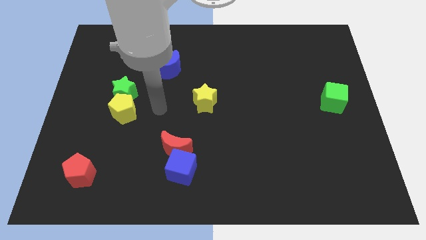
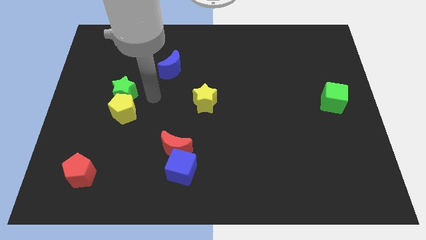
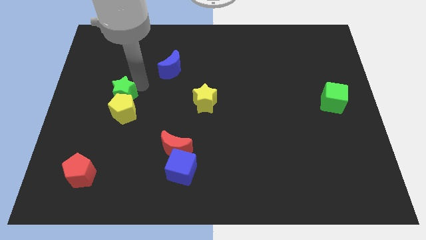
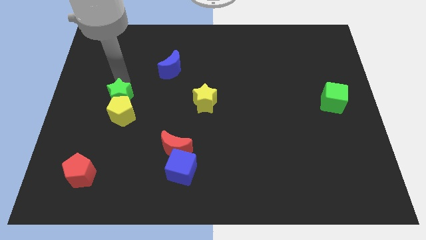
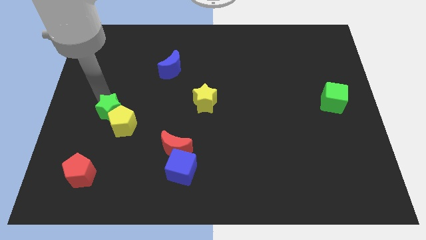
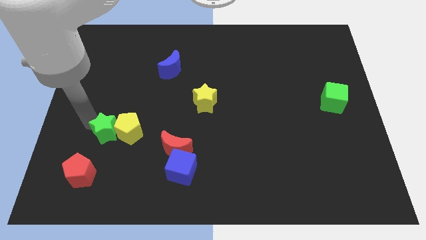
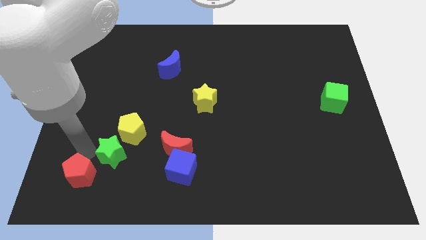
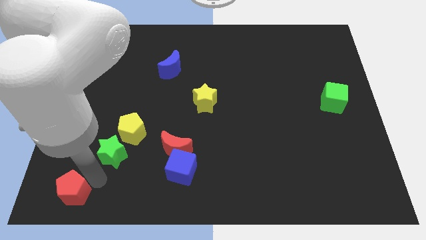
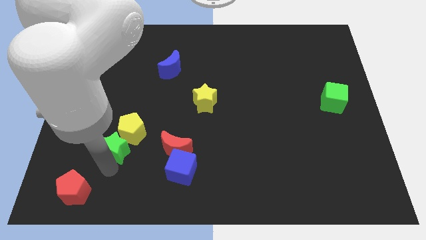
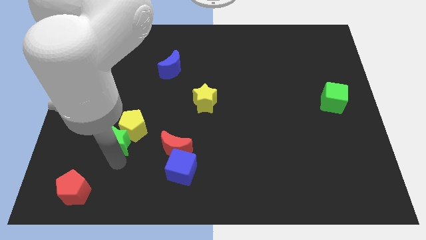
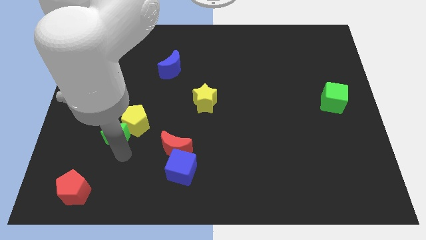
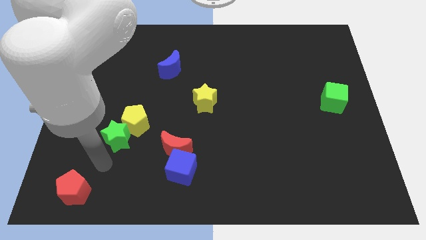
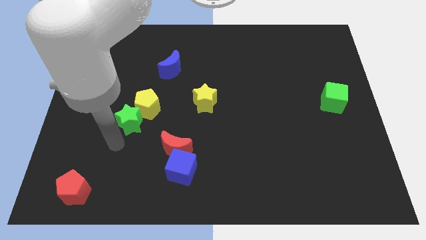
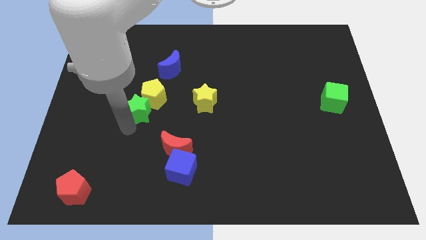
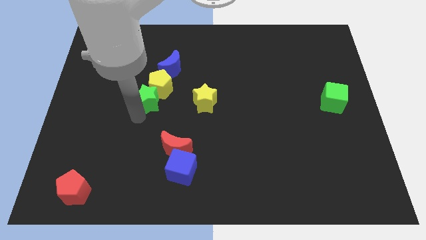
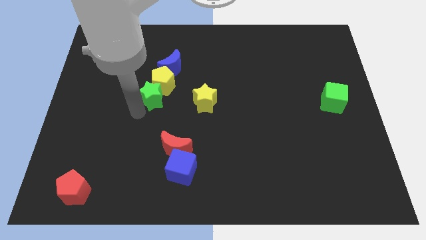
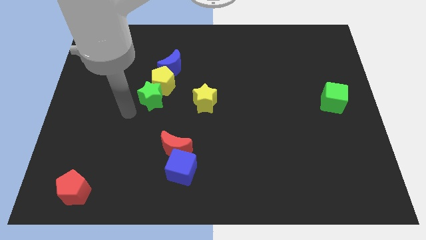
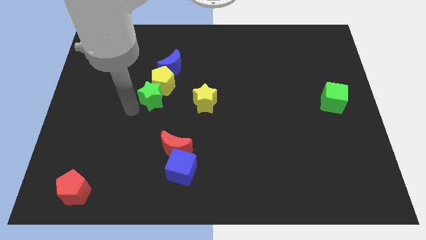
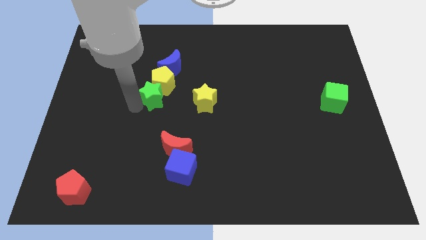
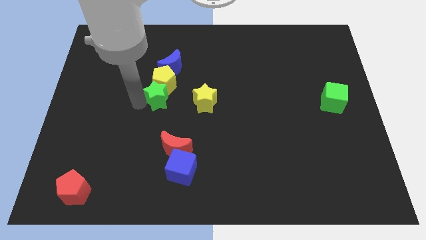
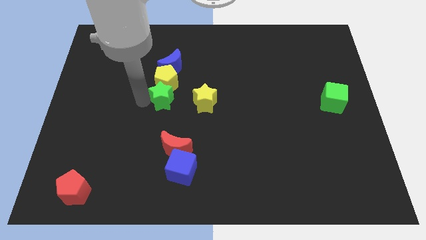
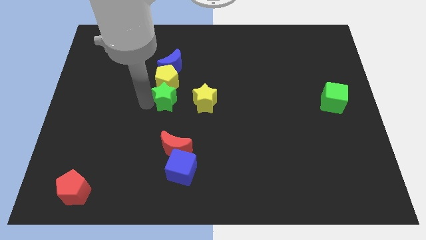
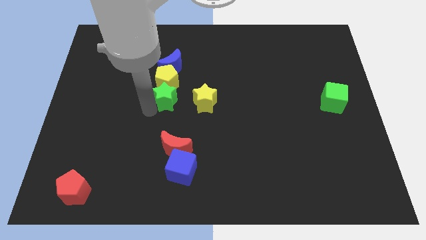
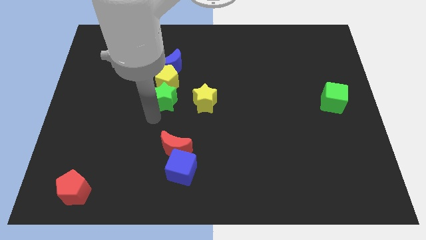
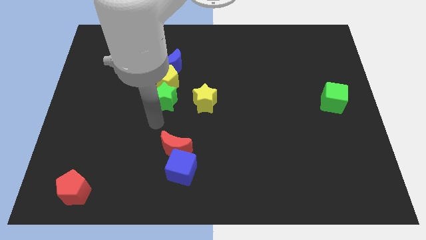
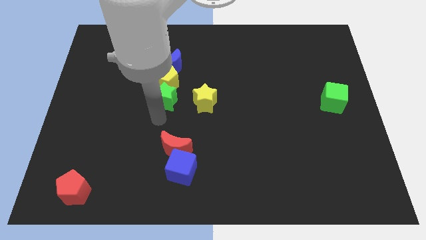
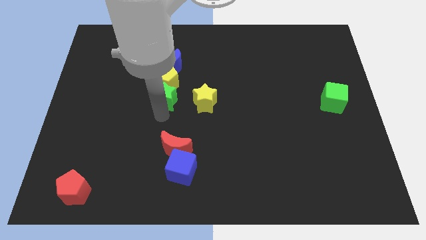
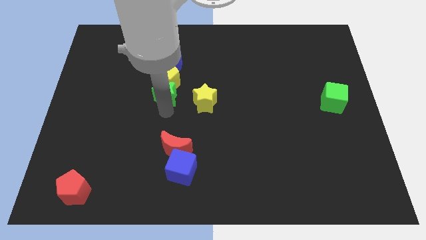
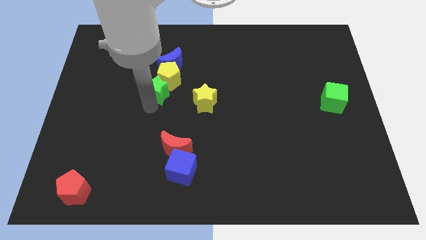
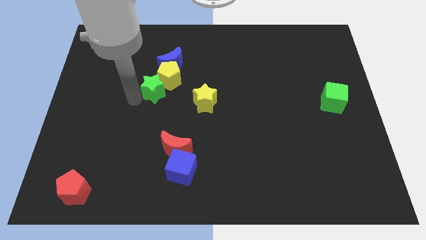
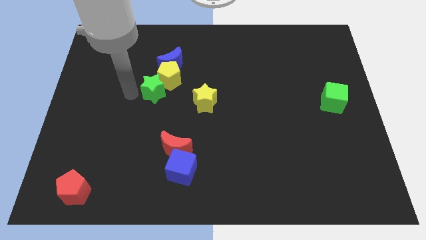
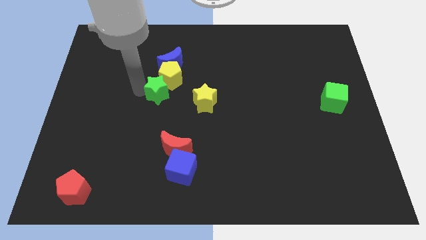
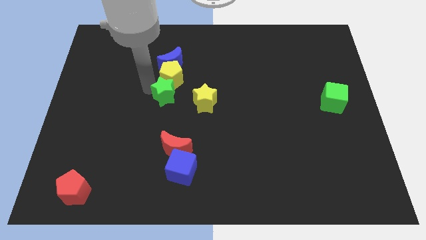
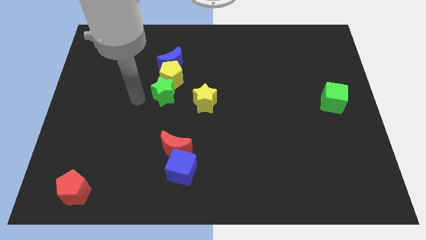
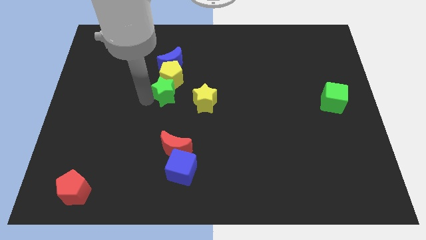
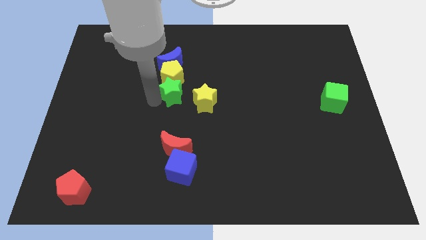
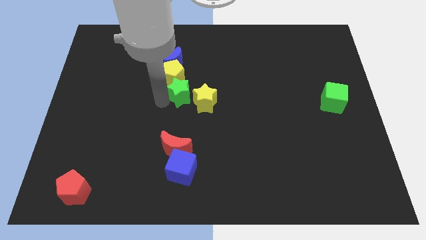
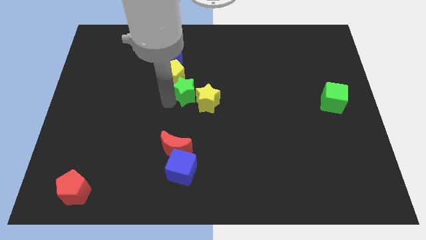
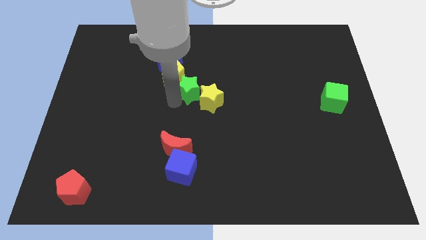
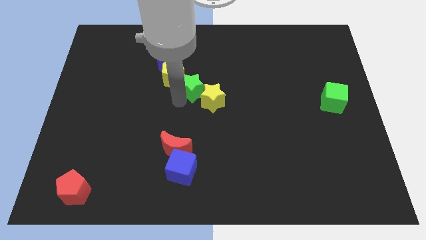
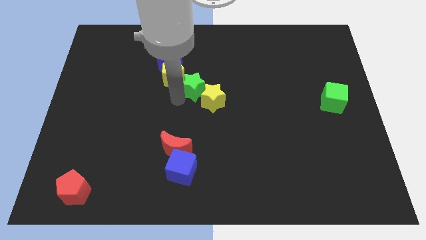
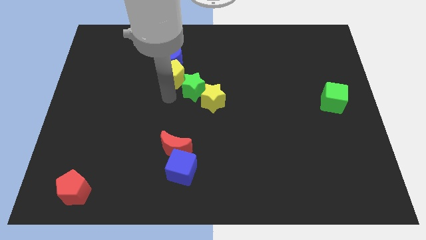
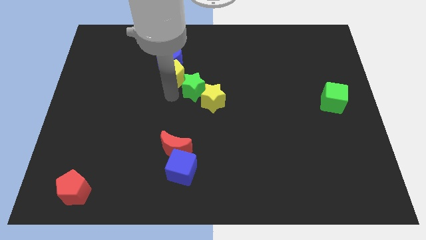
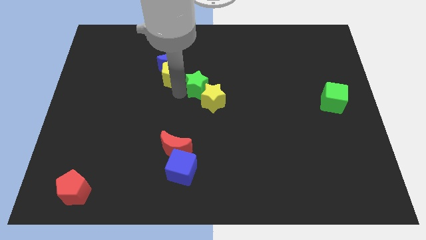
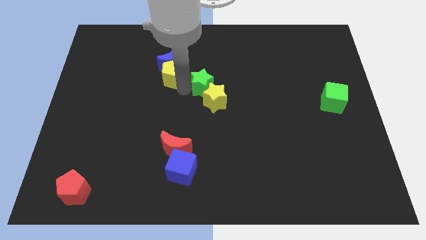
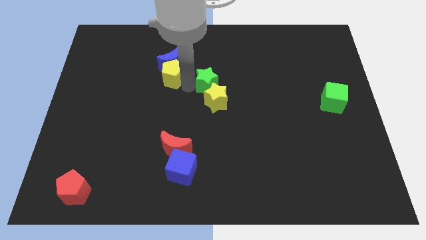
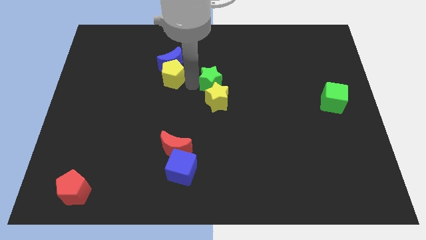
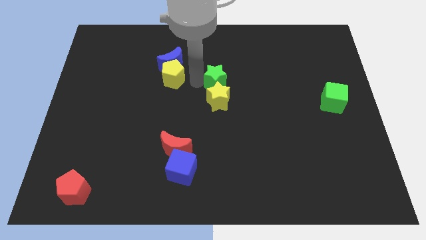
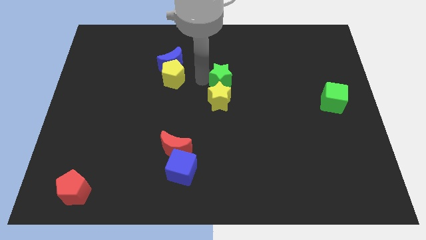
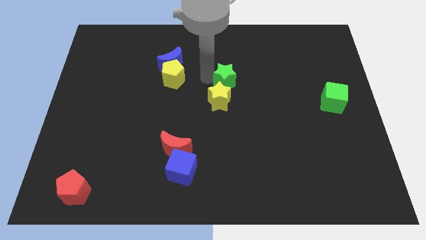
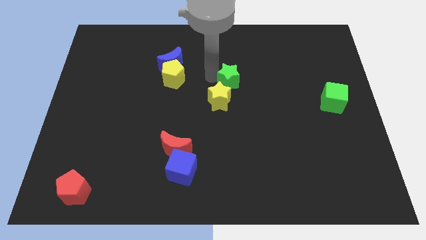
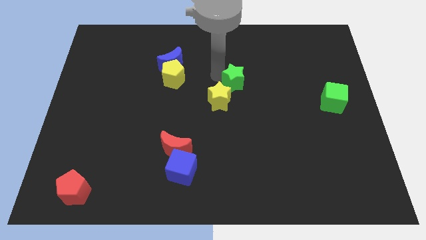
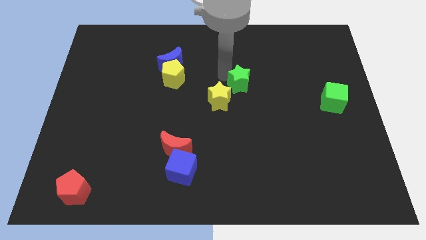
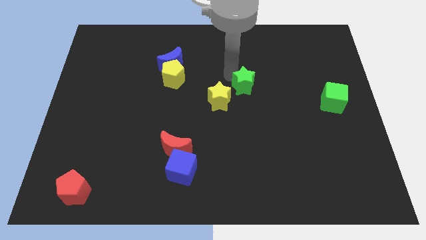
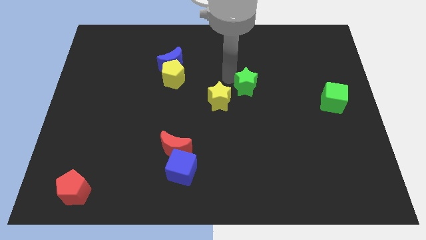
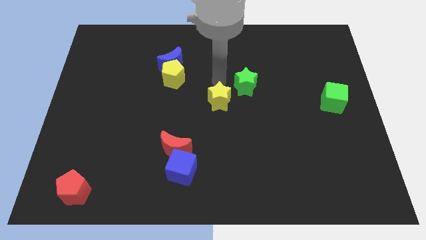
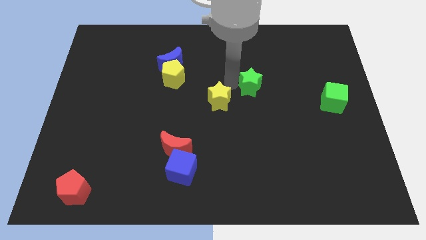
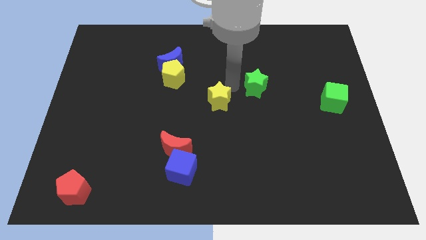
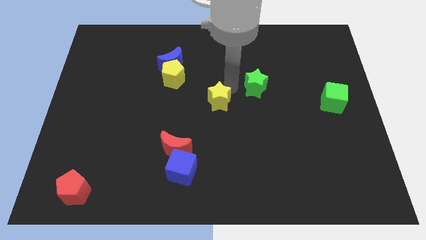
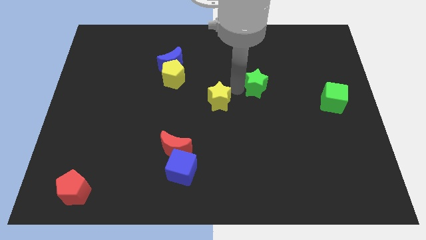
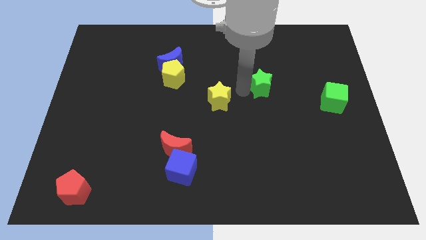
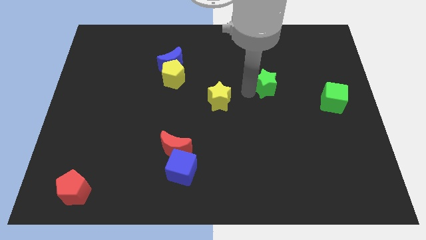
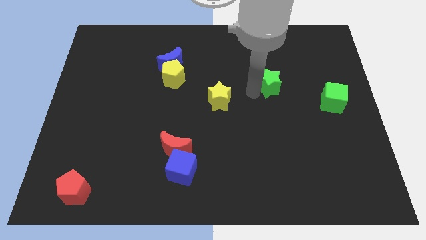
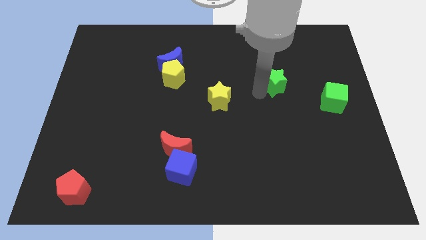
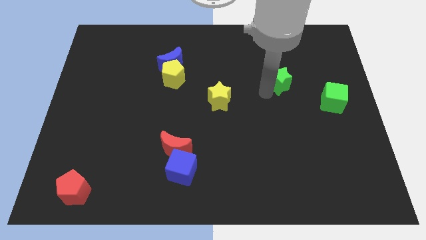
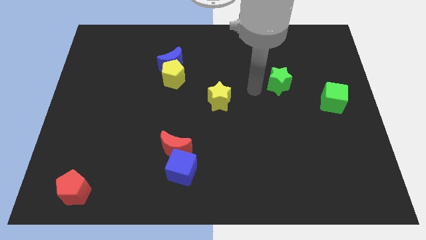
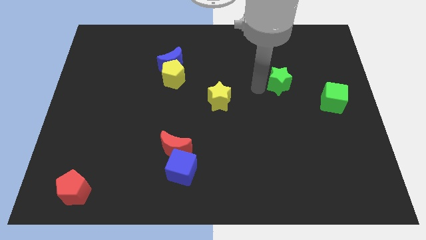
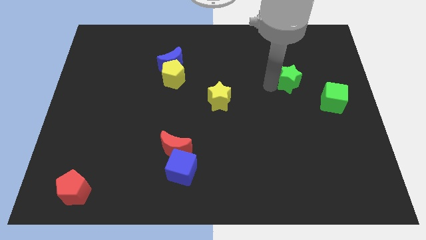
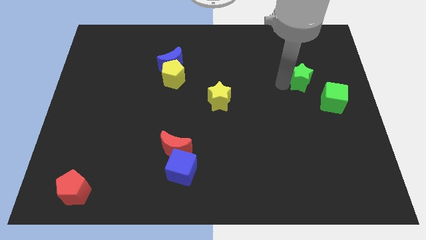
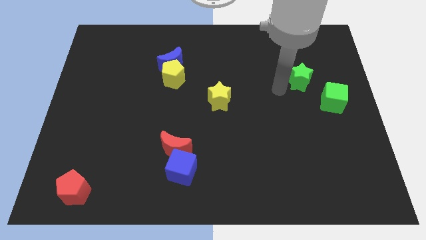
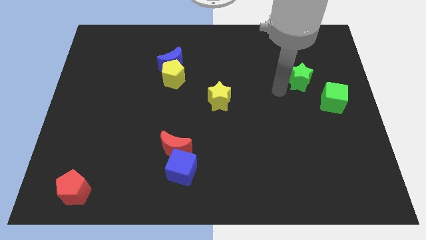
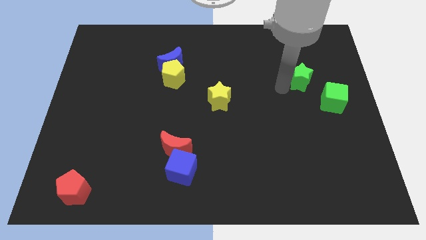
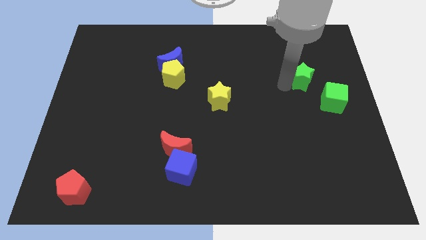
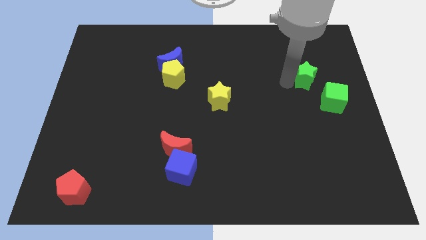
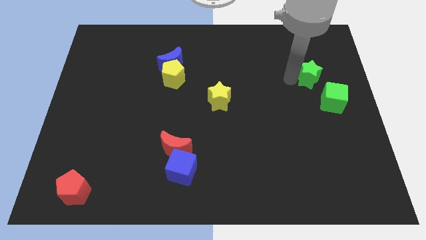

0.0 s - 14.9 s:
move the green star to the top side of the green cube
